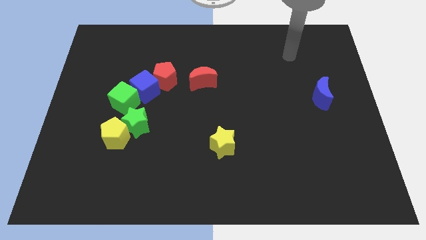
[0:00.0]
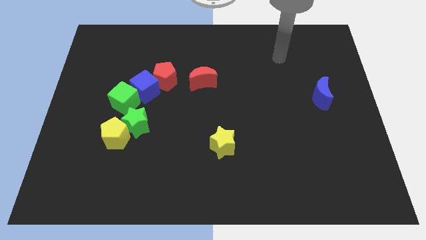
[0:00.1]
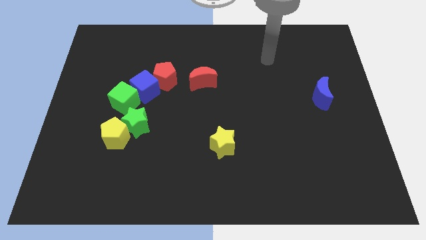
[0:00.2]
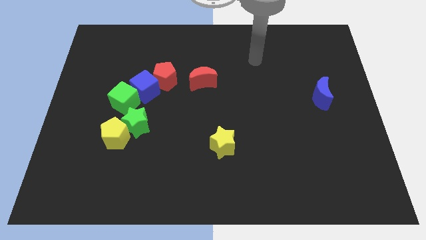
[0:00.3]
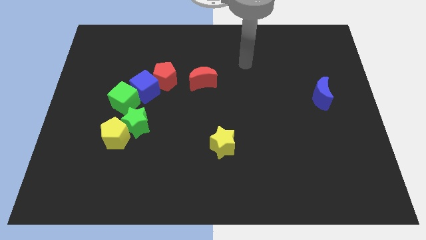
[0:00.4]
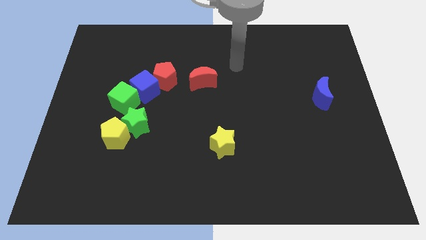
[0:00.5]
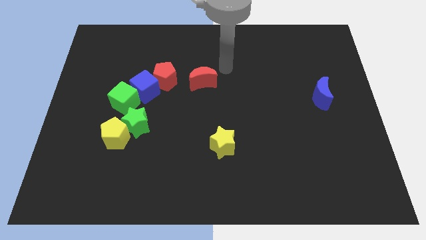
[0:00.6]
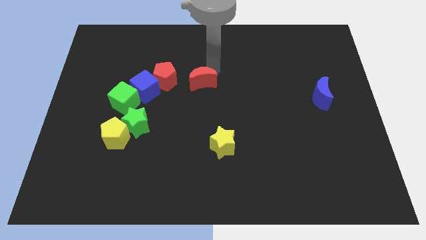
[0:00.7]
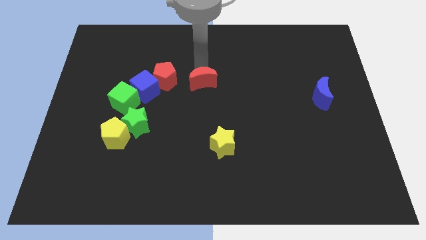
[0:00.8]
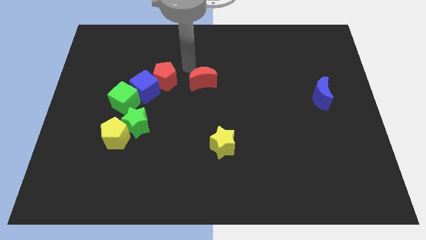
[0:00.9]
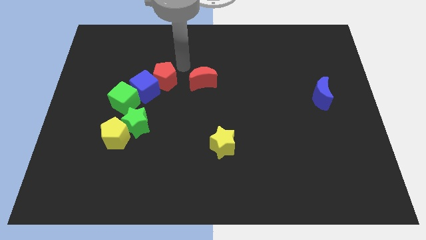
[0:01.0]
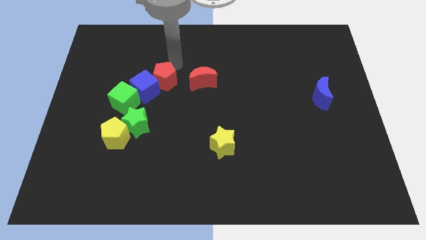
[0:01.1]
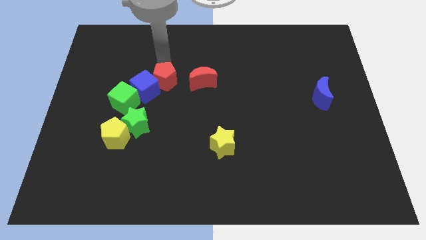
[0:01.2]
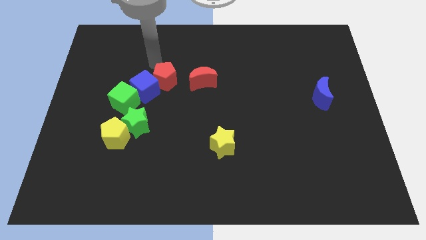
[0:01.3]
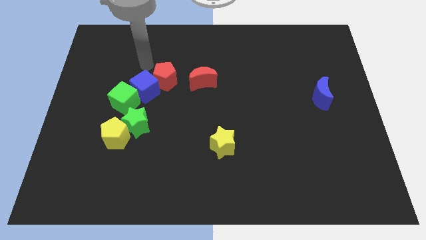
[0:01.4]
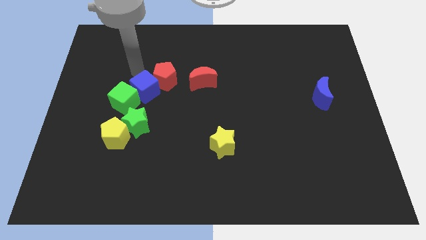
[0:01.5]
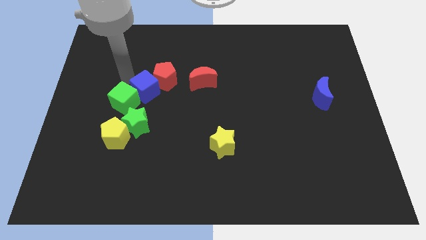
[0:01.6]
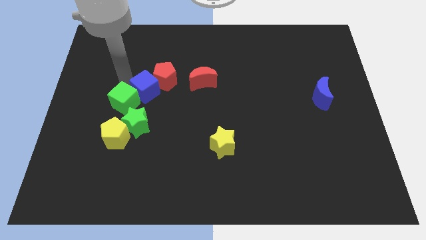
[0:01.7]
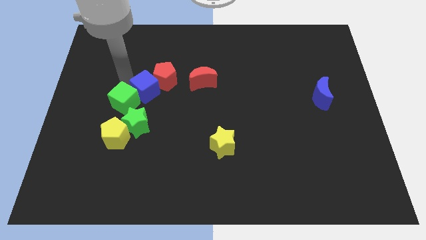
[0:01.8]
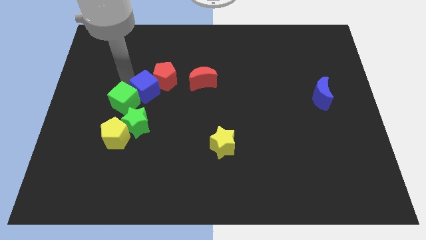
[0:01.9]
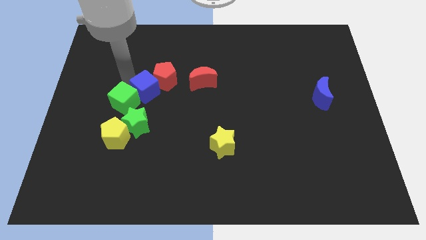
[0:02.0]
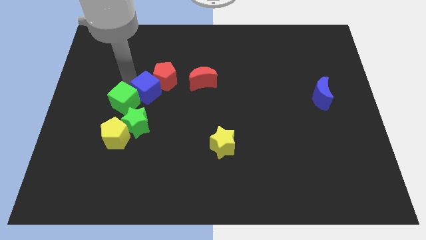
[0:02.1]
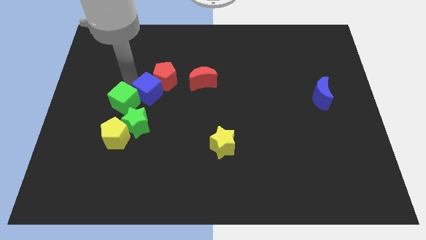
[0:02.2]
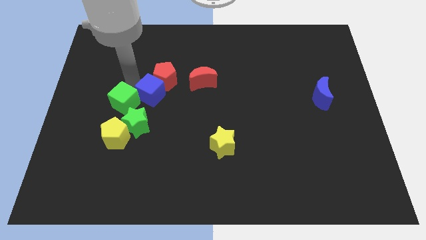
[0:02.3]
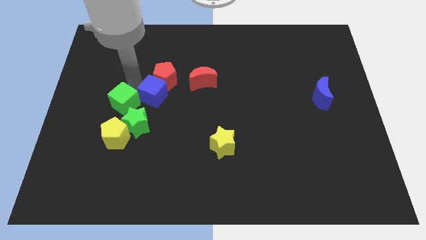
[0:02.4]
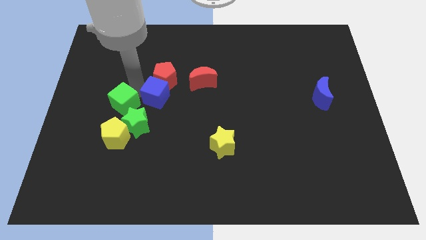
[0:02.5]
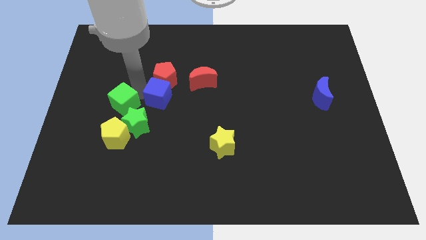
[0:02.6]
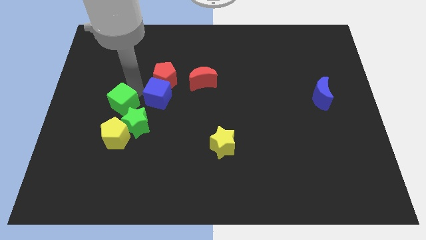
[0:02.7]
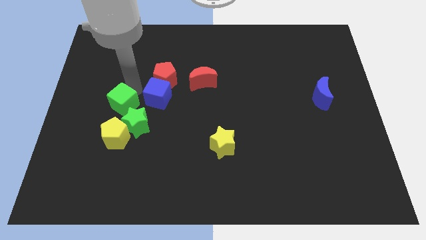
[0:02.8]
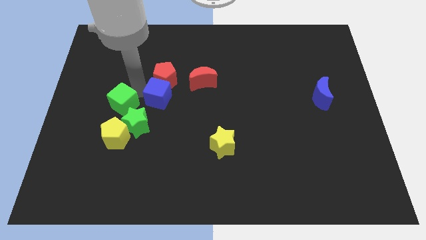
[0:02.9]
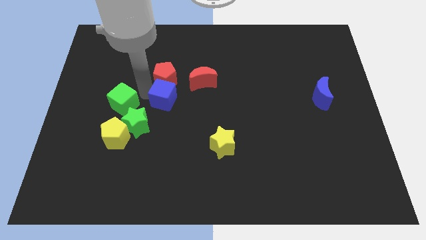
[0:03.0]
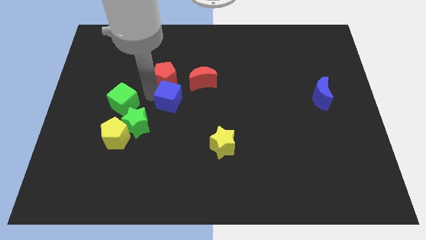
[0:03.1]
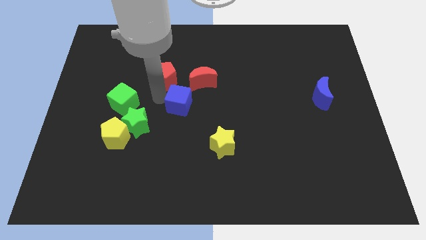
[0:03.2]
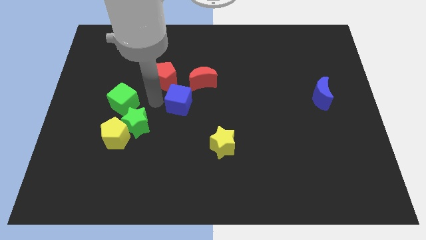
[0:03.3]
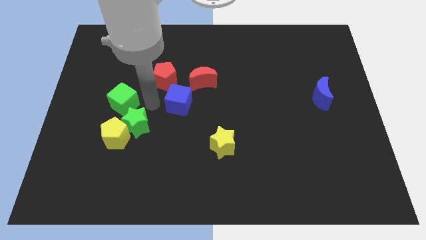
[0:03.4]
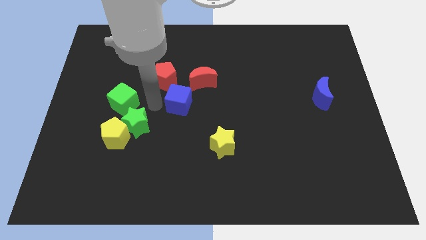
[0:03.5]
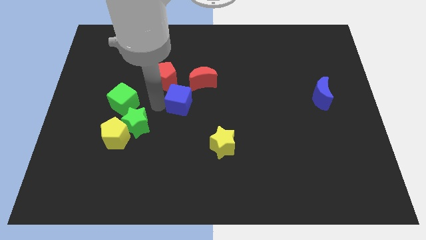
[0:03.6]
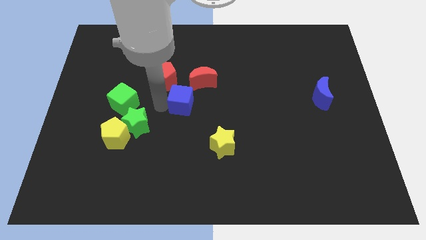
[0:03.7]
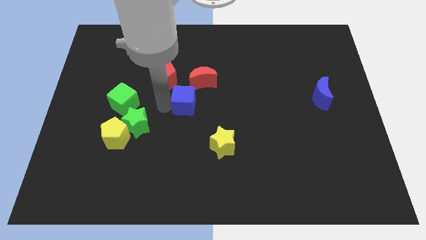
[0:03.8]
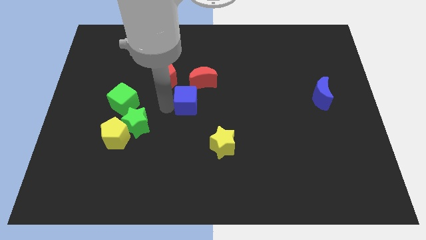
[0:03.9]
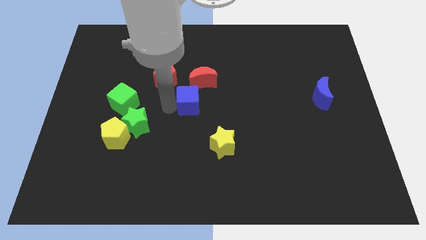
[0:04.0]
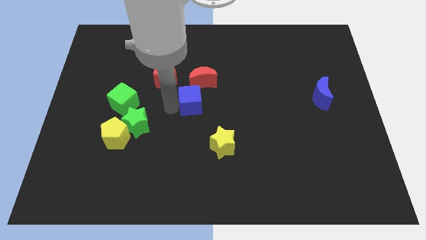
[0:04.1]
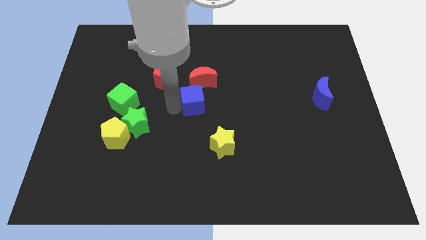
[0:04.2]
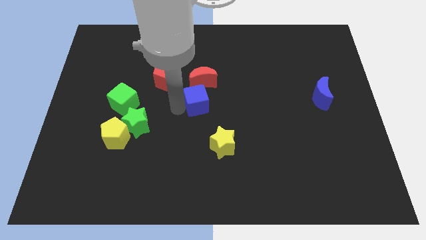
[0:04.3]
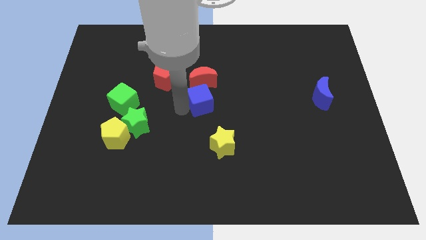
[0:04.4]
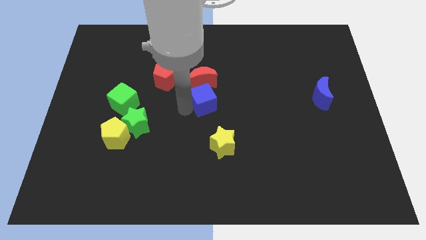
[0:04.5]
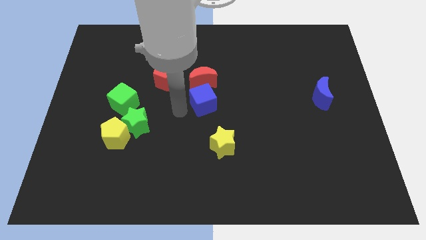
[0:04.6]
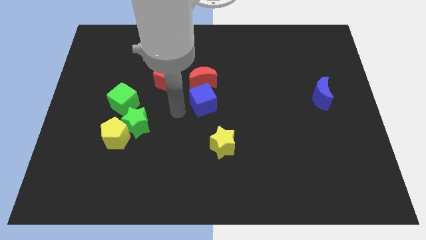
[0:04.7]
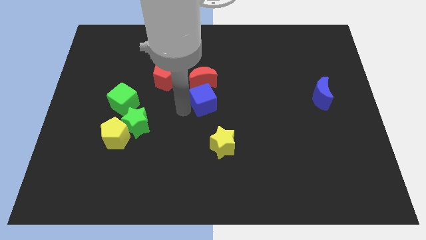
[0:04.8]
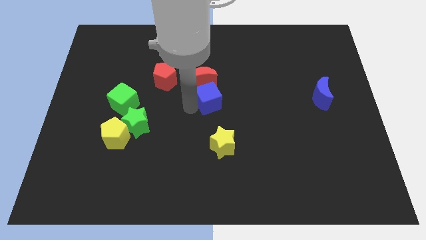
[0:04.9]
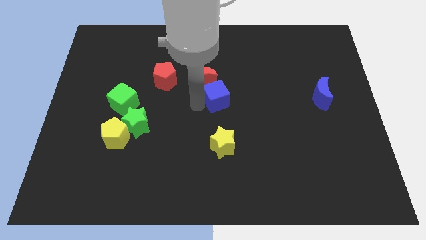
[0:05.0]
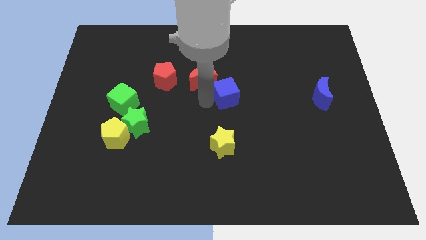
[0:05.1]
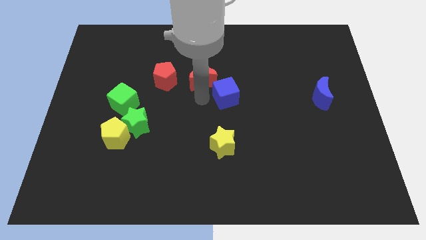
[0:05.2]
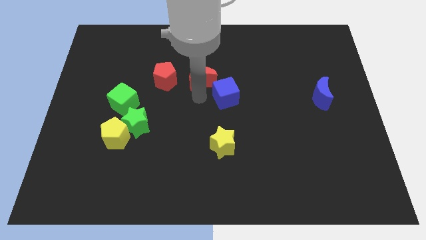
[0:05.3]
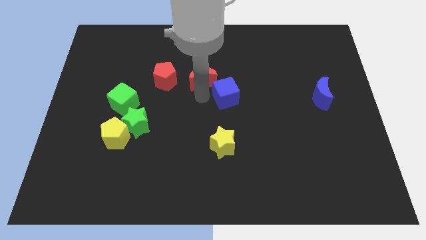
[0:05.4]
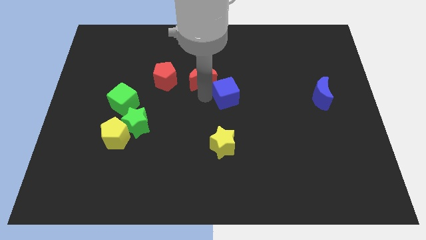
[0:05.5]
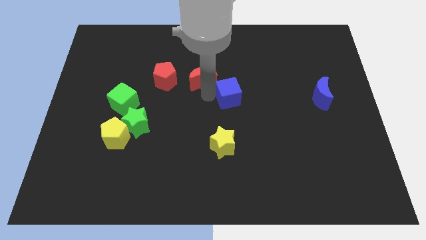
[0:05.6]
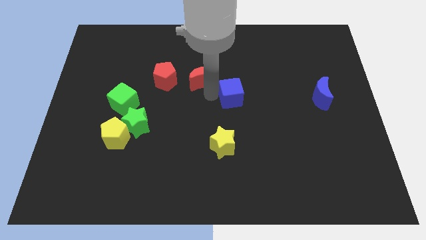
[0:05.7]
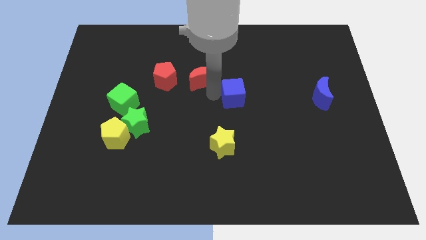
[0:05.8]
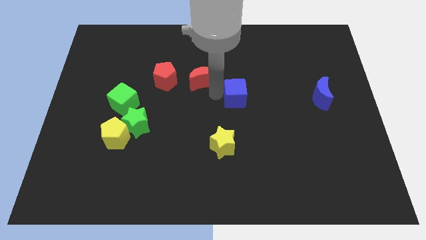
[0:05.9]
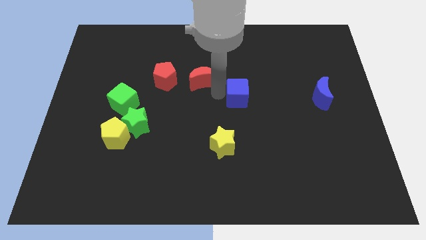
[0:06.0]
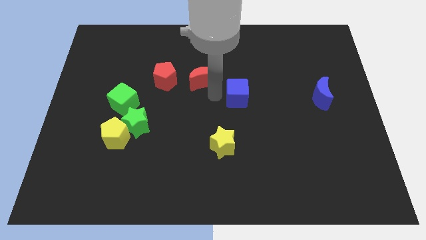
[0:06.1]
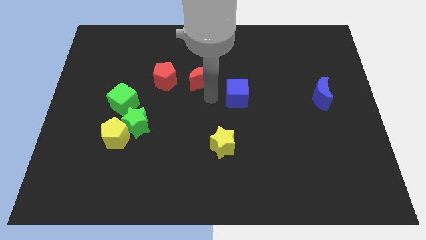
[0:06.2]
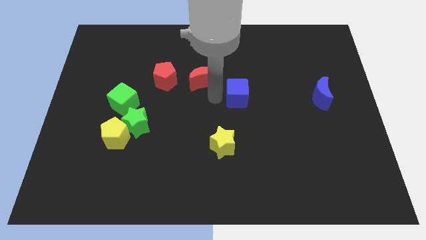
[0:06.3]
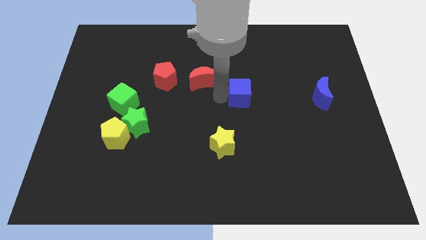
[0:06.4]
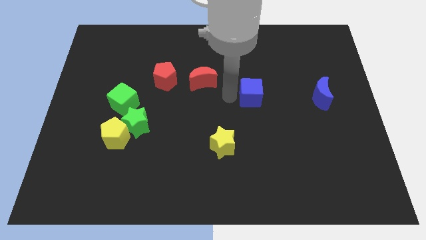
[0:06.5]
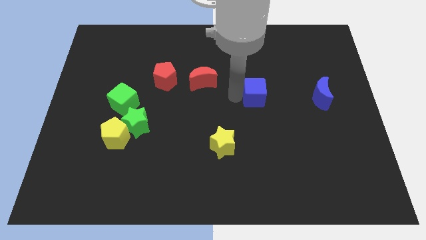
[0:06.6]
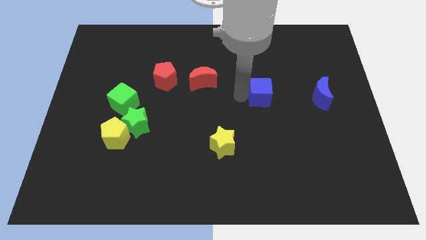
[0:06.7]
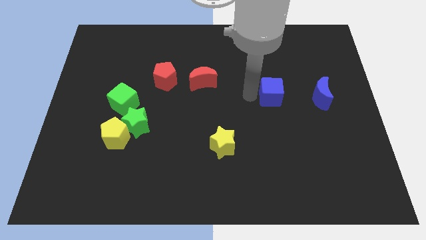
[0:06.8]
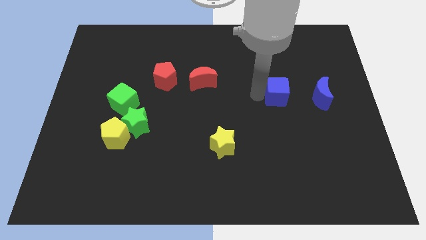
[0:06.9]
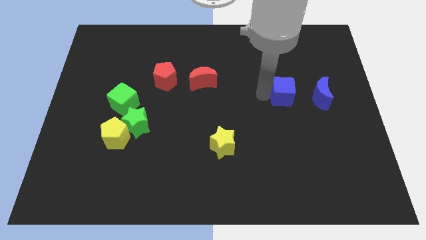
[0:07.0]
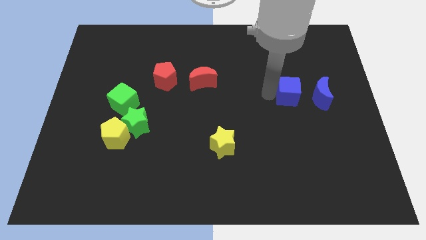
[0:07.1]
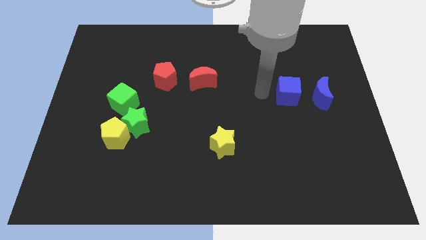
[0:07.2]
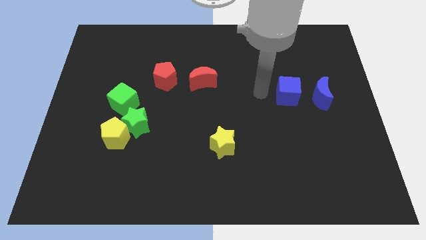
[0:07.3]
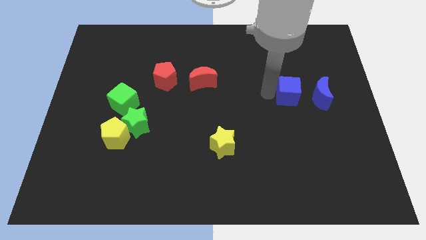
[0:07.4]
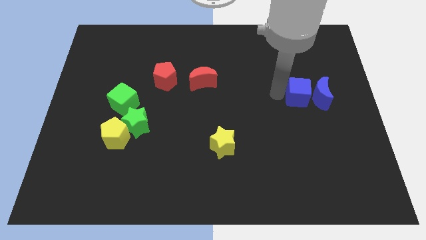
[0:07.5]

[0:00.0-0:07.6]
push the blue cube towards the blue moon
